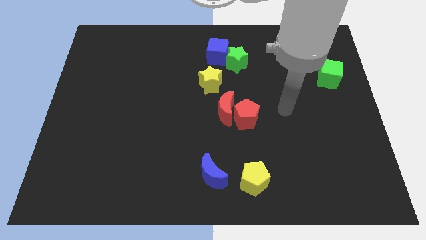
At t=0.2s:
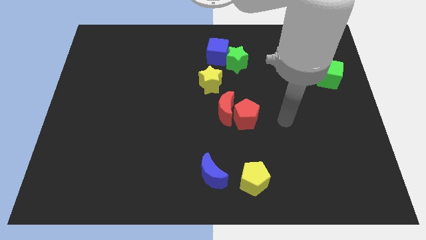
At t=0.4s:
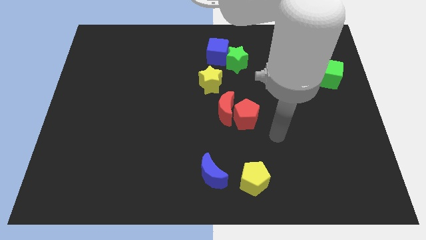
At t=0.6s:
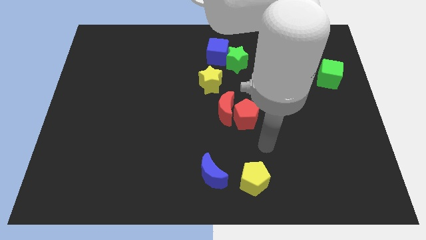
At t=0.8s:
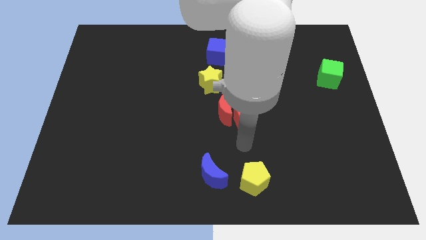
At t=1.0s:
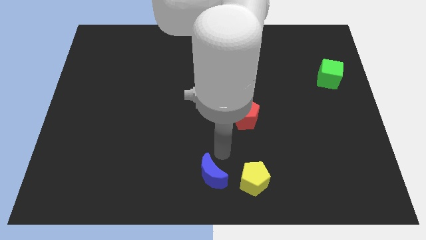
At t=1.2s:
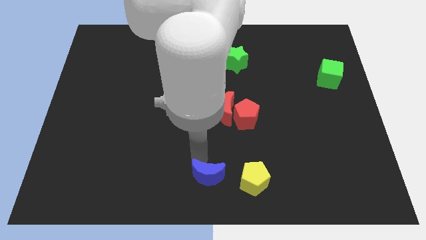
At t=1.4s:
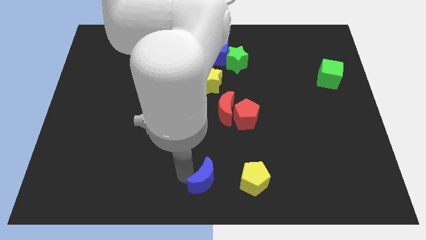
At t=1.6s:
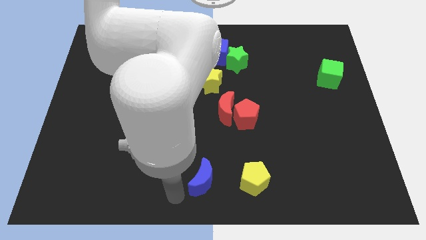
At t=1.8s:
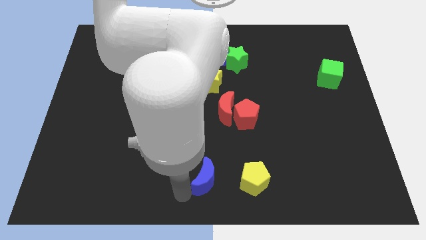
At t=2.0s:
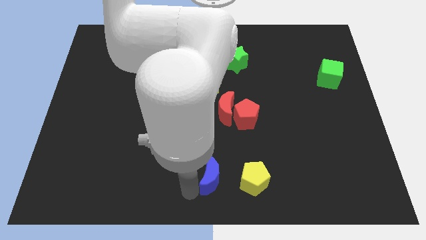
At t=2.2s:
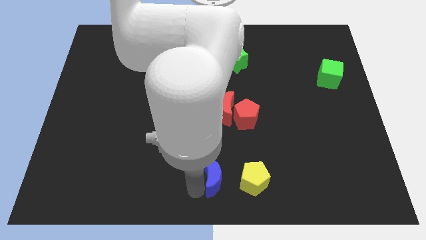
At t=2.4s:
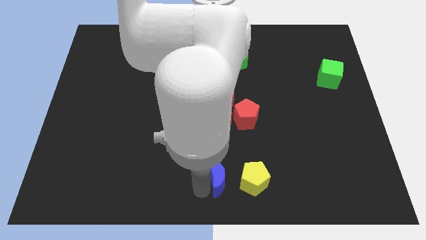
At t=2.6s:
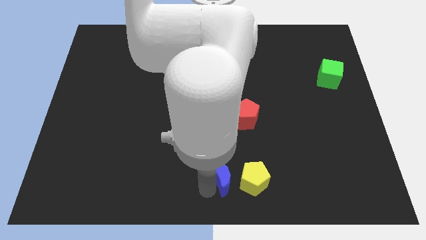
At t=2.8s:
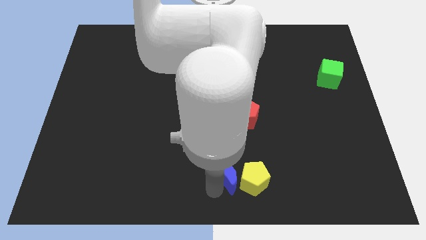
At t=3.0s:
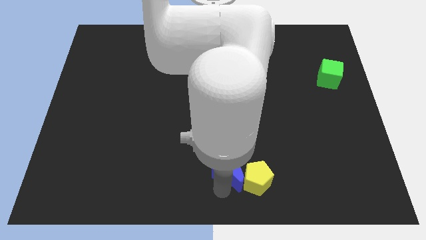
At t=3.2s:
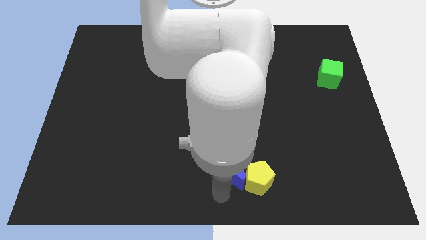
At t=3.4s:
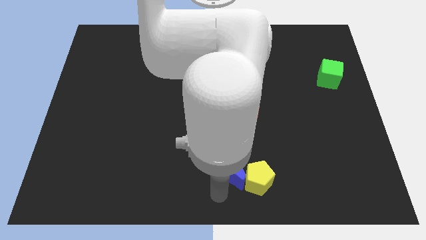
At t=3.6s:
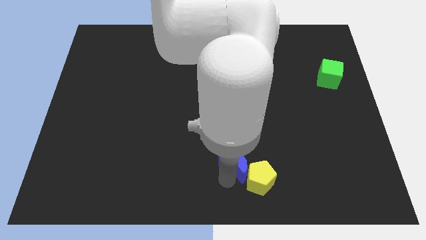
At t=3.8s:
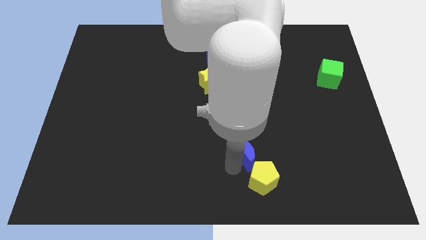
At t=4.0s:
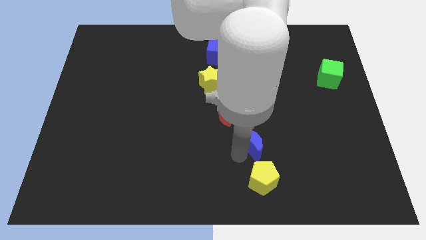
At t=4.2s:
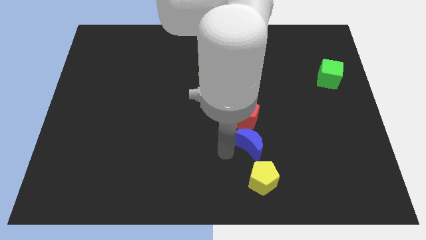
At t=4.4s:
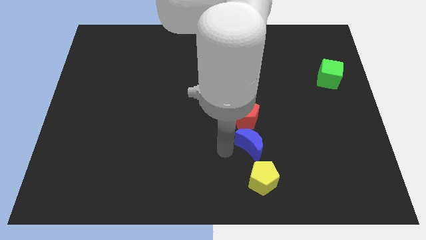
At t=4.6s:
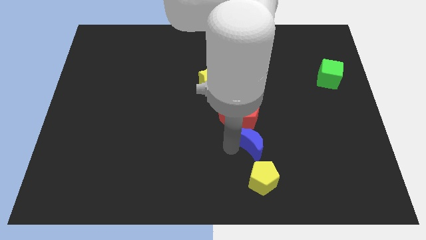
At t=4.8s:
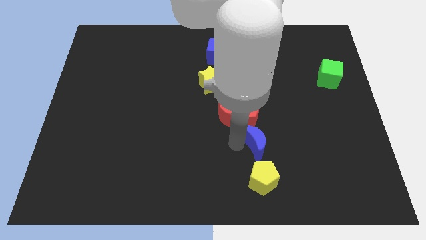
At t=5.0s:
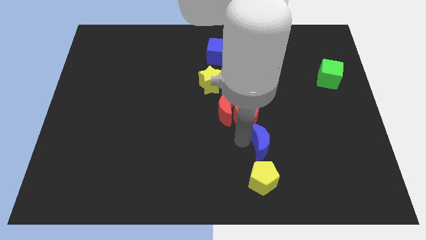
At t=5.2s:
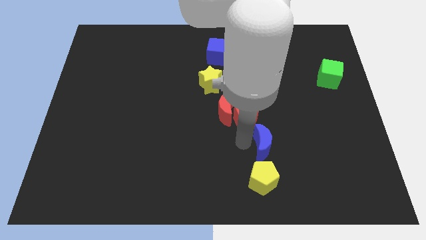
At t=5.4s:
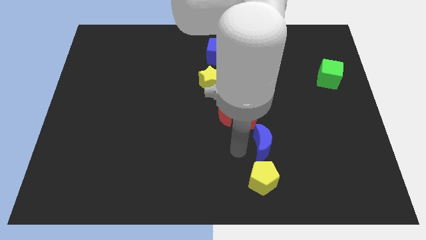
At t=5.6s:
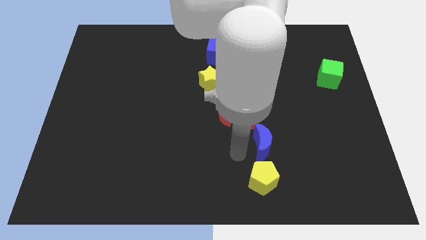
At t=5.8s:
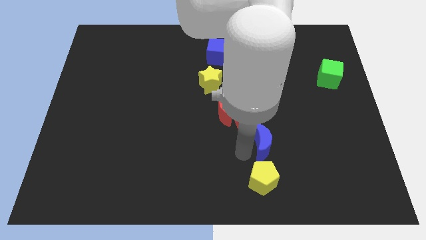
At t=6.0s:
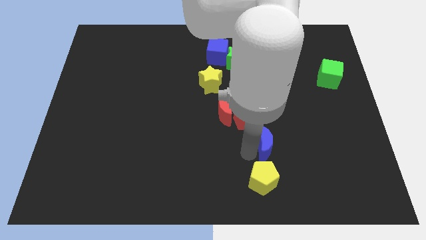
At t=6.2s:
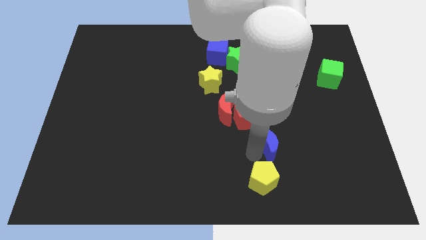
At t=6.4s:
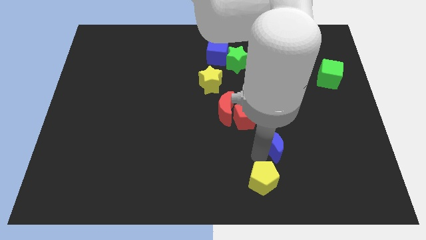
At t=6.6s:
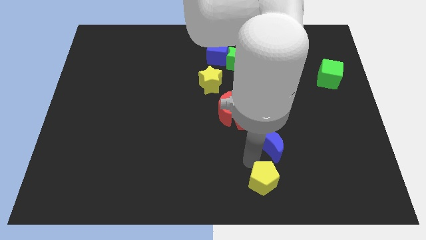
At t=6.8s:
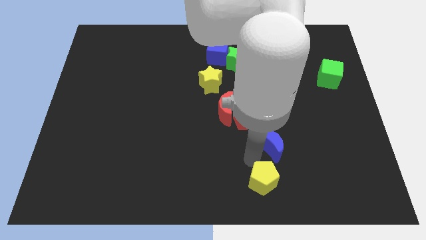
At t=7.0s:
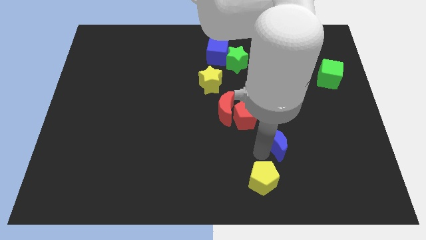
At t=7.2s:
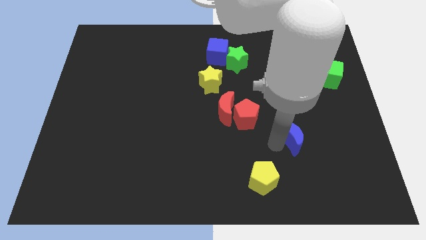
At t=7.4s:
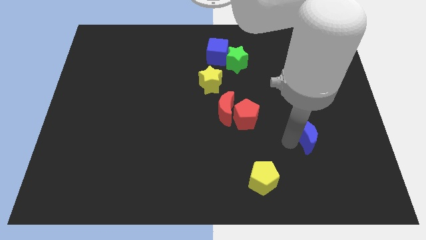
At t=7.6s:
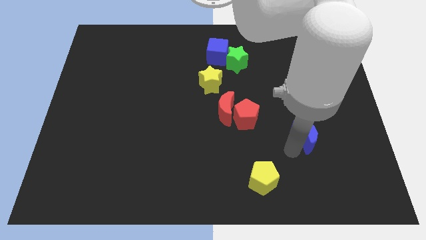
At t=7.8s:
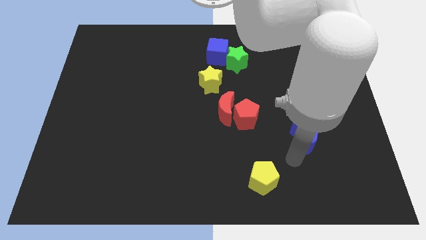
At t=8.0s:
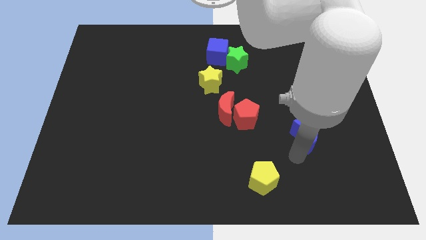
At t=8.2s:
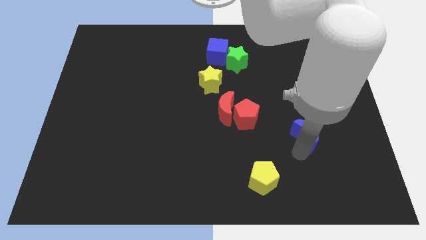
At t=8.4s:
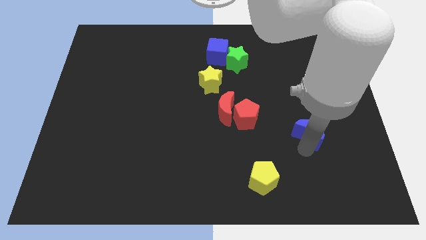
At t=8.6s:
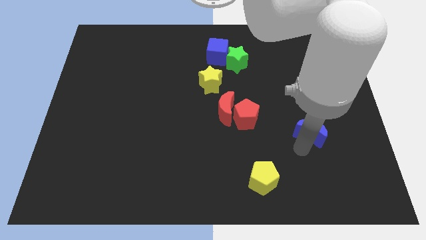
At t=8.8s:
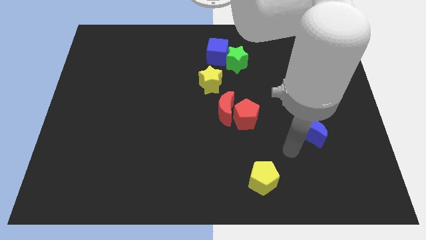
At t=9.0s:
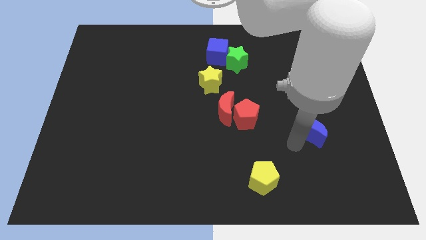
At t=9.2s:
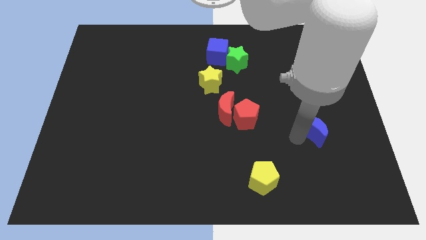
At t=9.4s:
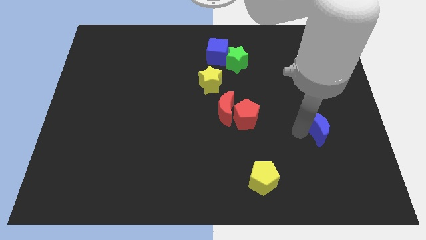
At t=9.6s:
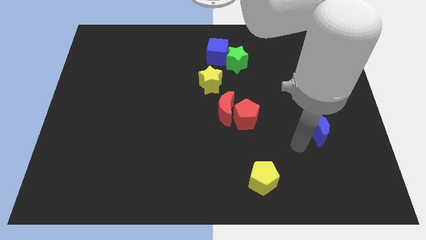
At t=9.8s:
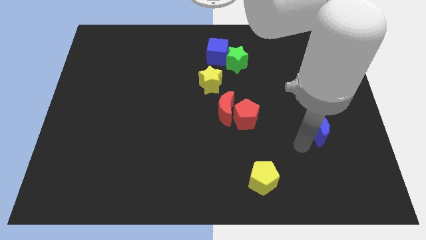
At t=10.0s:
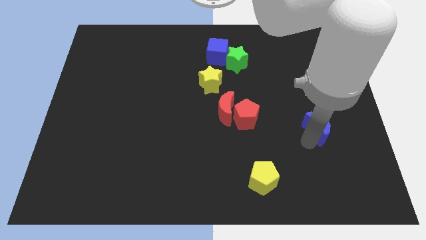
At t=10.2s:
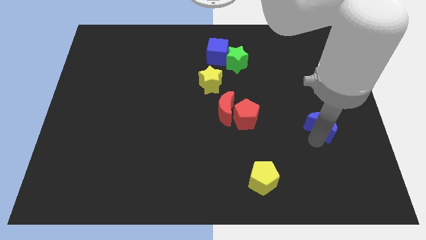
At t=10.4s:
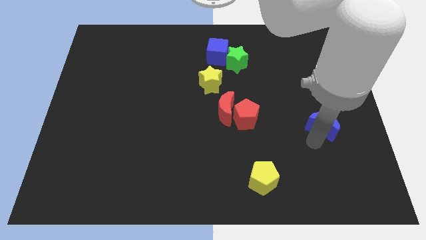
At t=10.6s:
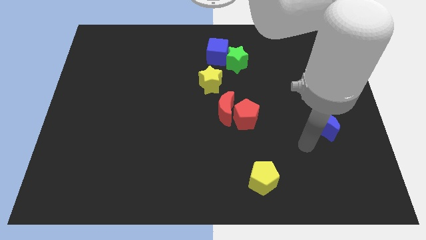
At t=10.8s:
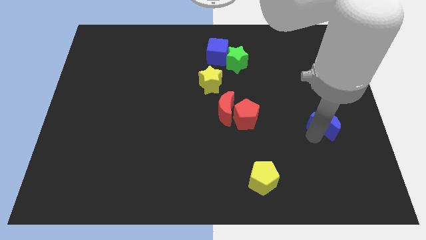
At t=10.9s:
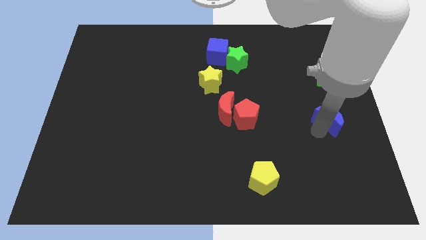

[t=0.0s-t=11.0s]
move the blue moon below the green cube

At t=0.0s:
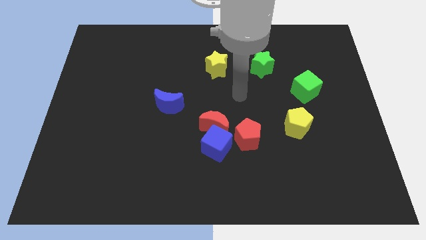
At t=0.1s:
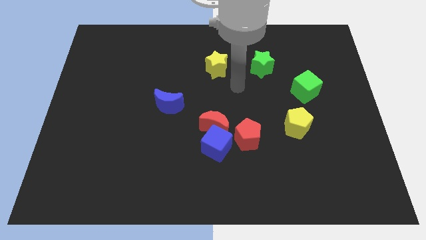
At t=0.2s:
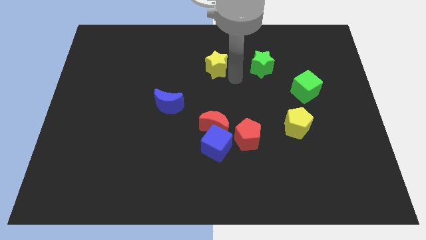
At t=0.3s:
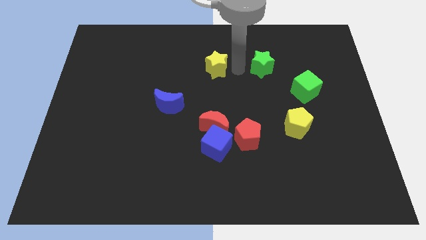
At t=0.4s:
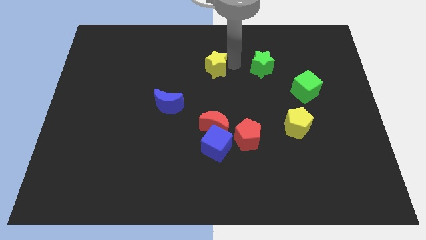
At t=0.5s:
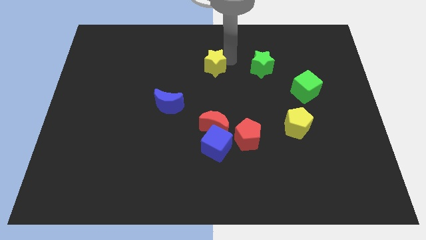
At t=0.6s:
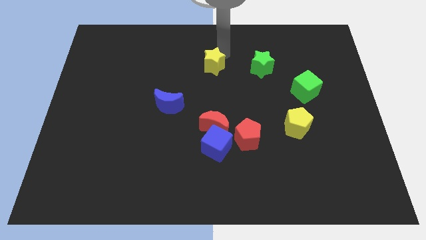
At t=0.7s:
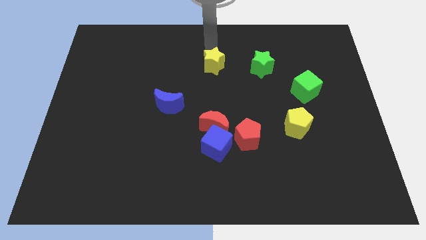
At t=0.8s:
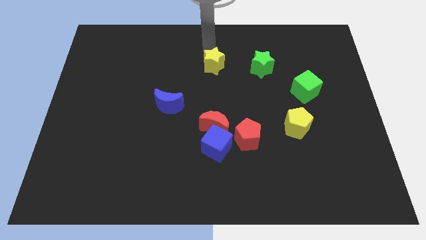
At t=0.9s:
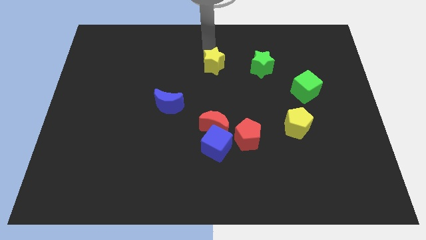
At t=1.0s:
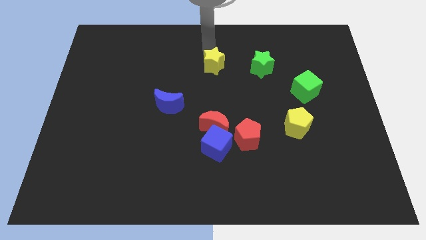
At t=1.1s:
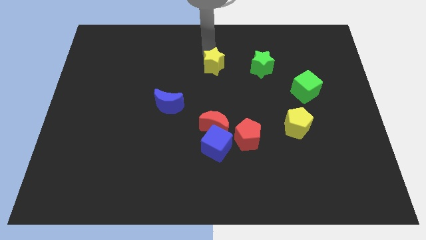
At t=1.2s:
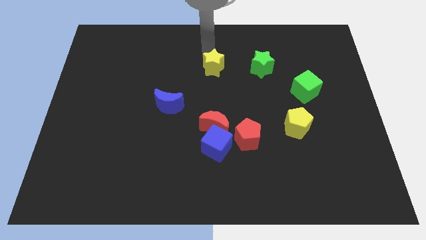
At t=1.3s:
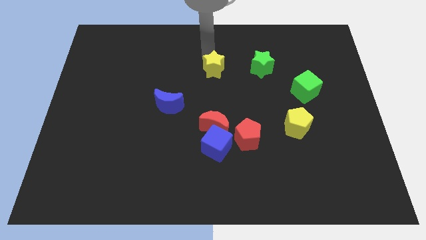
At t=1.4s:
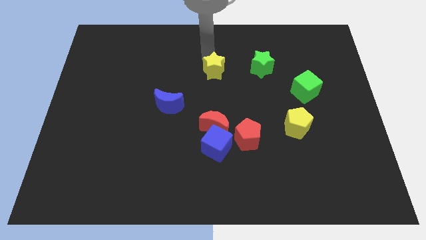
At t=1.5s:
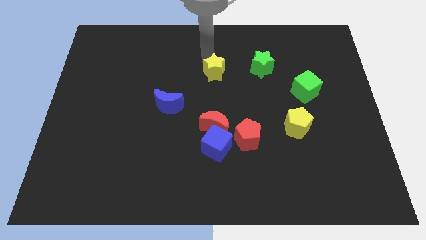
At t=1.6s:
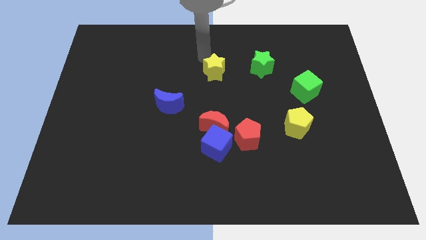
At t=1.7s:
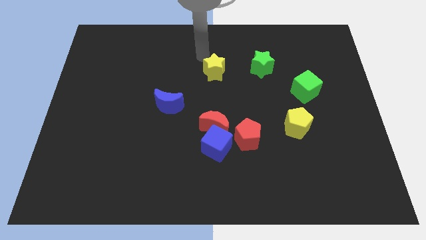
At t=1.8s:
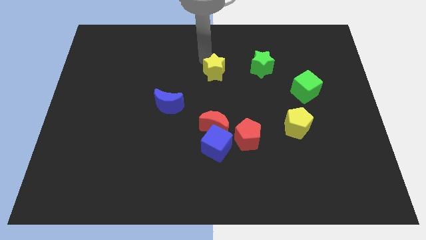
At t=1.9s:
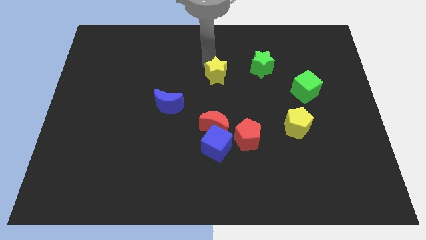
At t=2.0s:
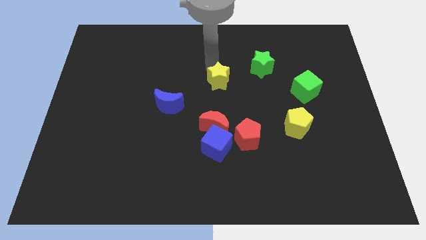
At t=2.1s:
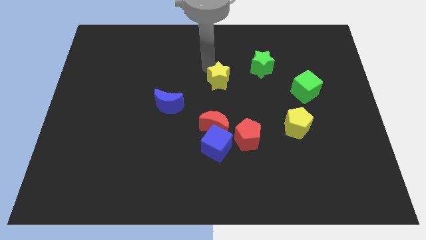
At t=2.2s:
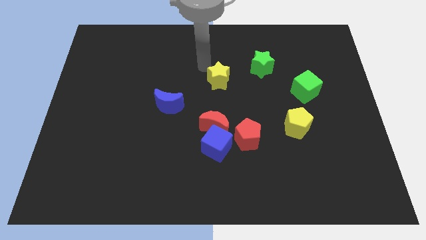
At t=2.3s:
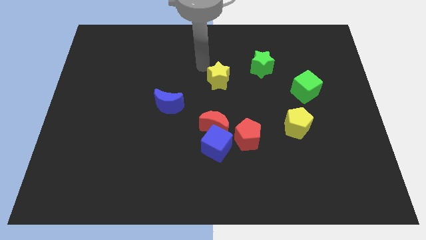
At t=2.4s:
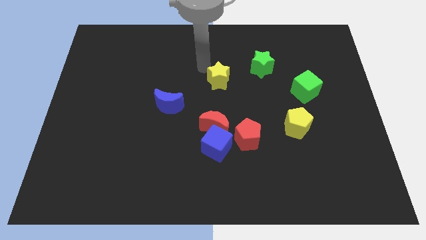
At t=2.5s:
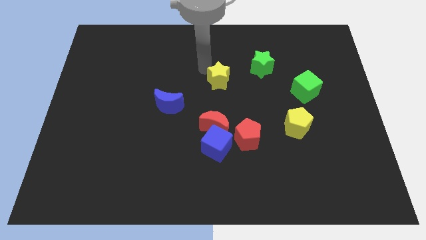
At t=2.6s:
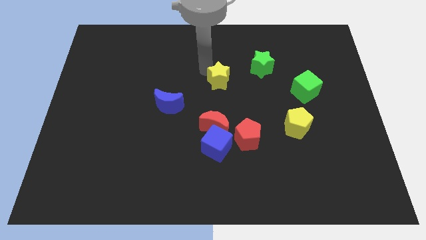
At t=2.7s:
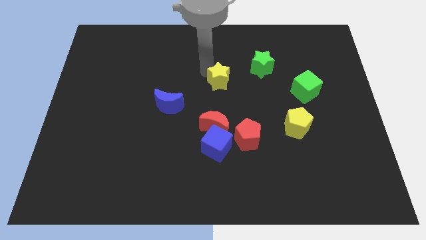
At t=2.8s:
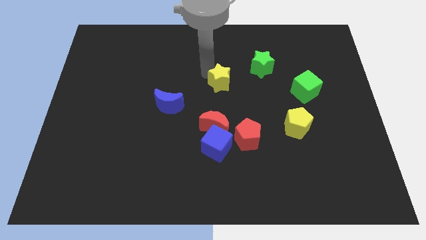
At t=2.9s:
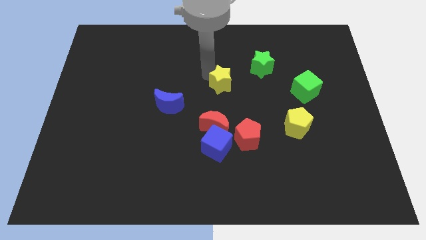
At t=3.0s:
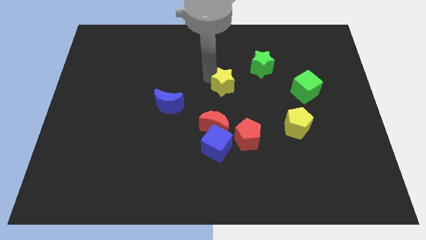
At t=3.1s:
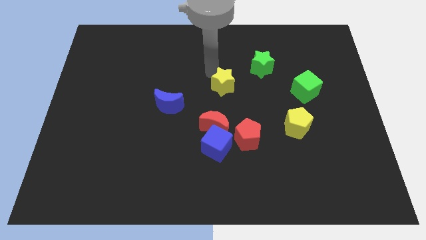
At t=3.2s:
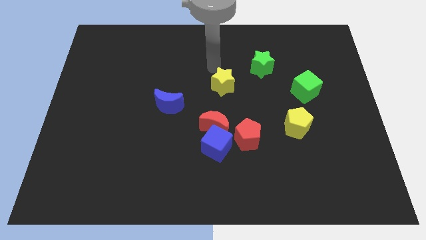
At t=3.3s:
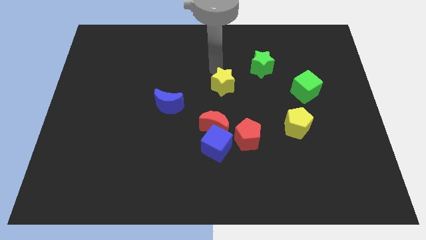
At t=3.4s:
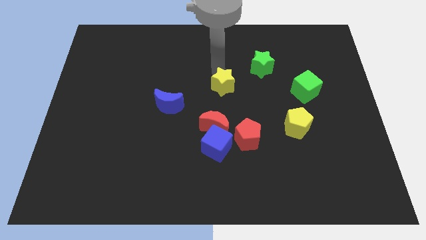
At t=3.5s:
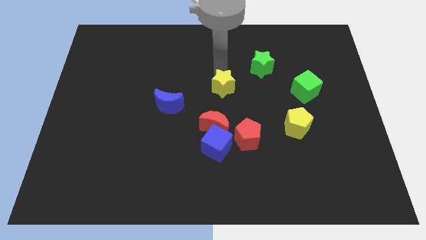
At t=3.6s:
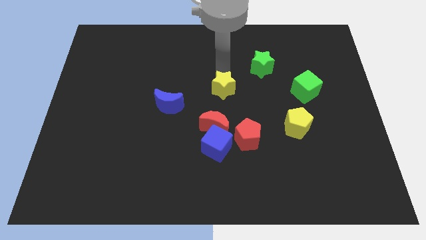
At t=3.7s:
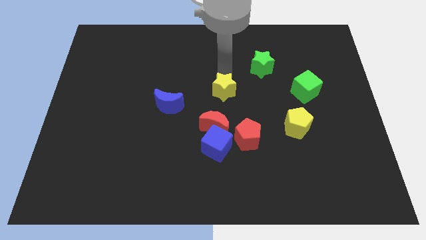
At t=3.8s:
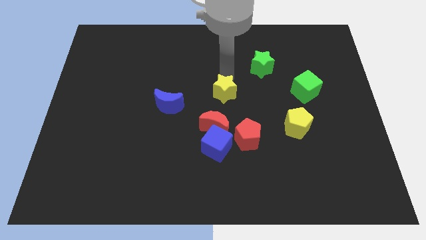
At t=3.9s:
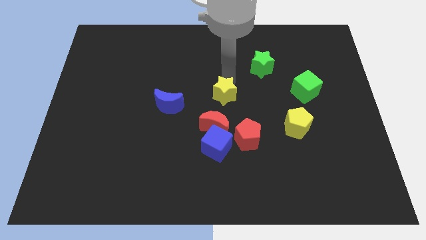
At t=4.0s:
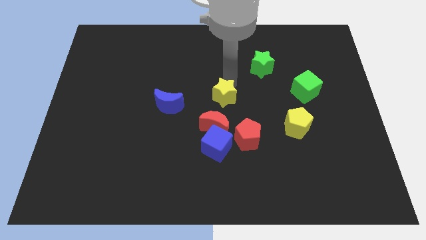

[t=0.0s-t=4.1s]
push the yellow star diagonally up and to the right of the red moon
